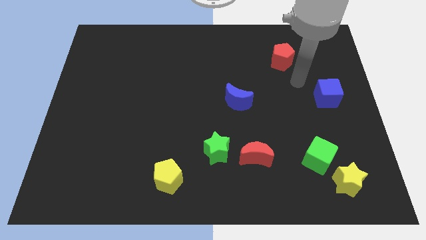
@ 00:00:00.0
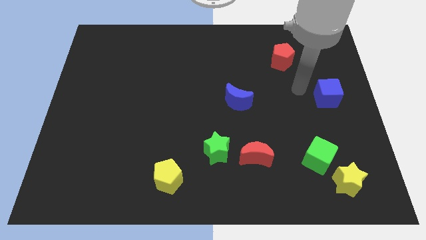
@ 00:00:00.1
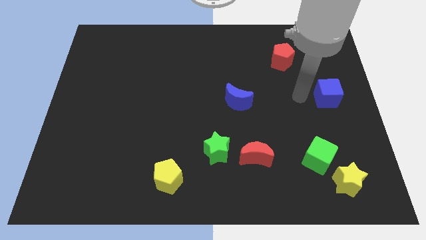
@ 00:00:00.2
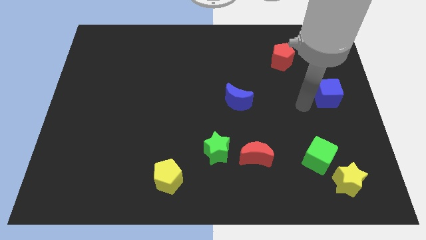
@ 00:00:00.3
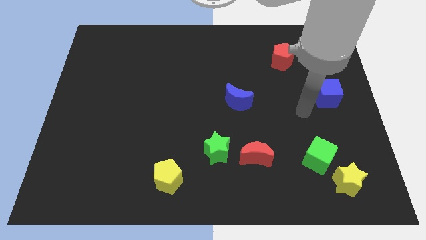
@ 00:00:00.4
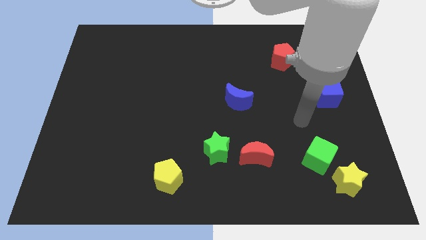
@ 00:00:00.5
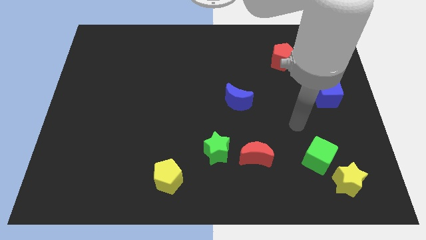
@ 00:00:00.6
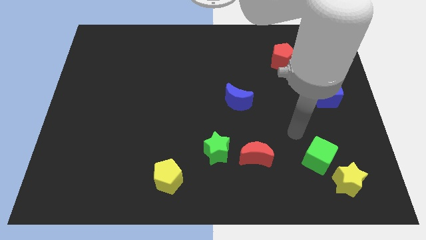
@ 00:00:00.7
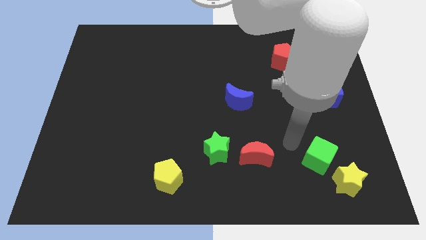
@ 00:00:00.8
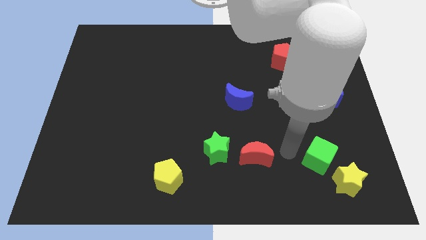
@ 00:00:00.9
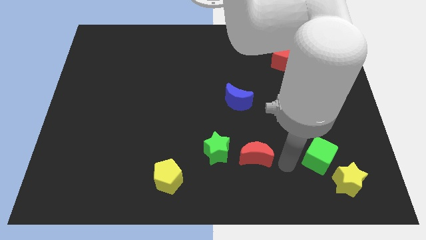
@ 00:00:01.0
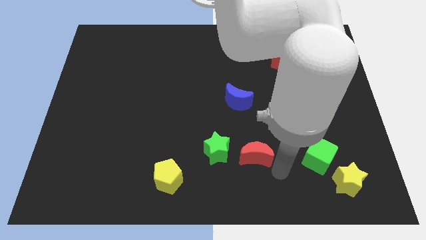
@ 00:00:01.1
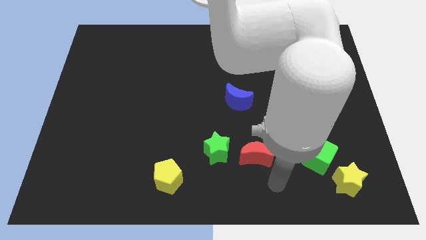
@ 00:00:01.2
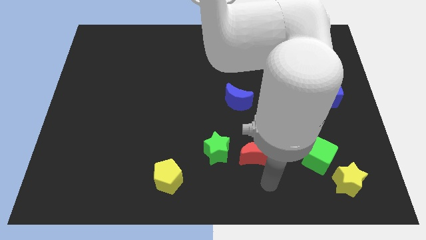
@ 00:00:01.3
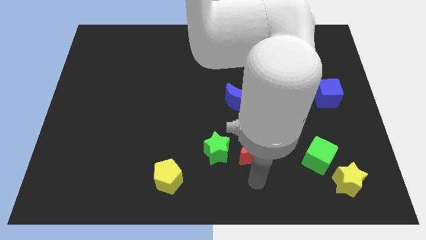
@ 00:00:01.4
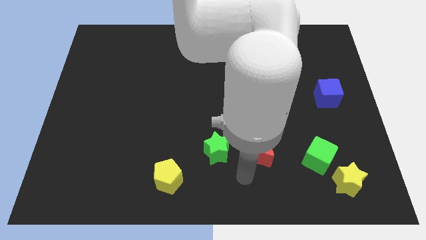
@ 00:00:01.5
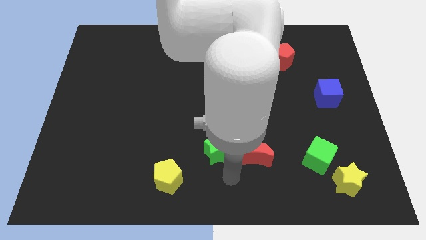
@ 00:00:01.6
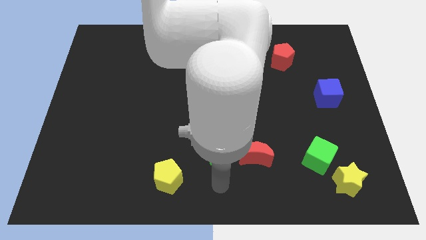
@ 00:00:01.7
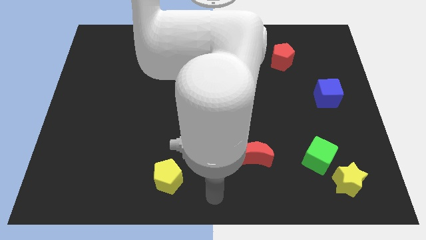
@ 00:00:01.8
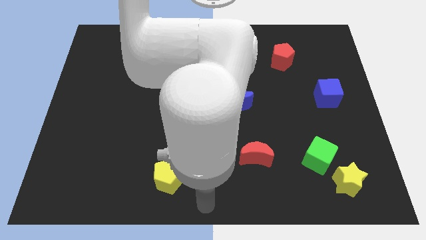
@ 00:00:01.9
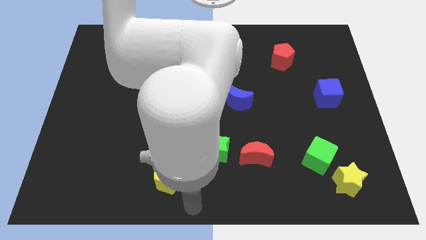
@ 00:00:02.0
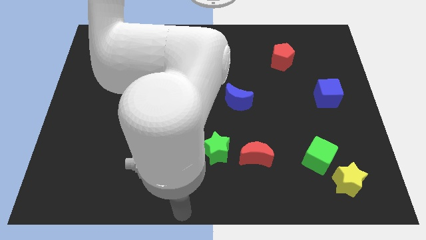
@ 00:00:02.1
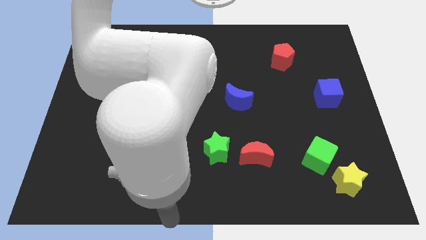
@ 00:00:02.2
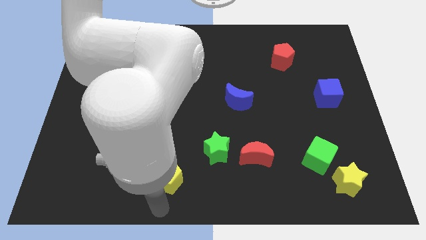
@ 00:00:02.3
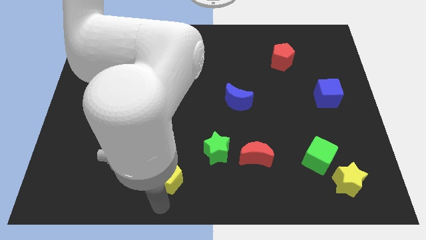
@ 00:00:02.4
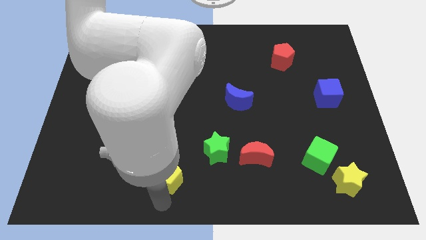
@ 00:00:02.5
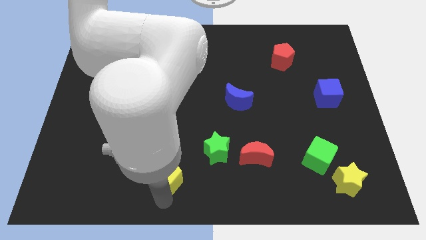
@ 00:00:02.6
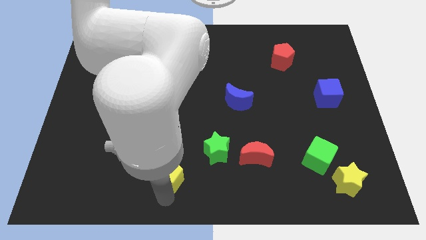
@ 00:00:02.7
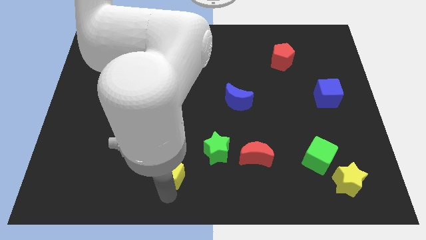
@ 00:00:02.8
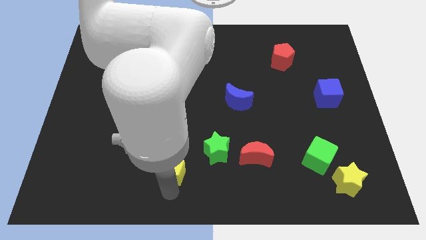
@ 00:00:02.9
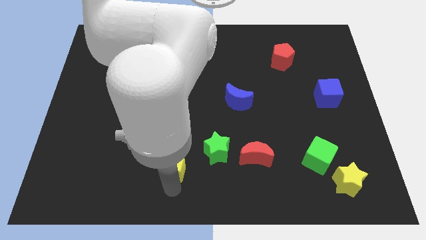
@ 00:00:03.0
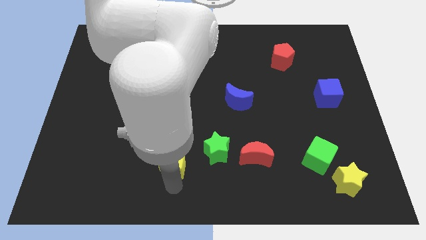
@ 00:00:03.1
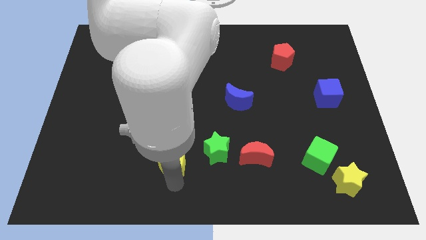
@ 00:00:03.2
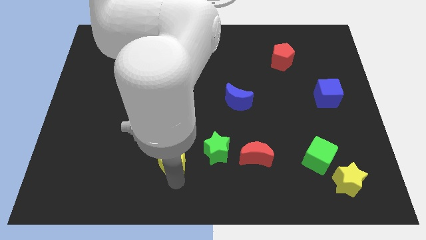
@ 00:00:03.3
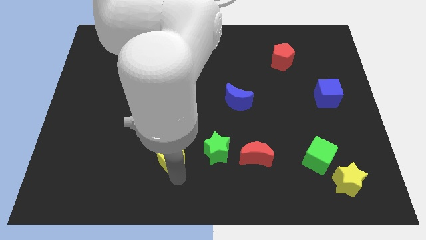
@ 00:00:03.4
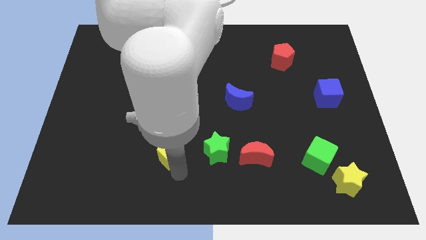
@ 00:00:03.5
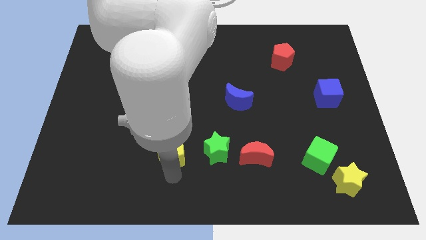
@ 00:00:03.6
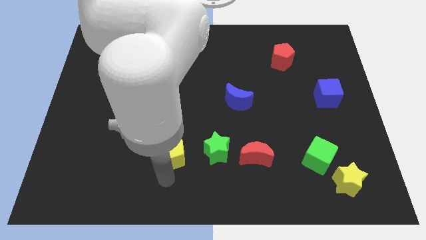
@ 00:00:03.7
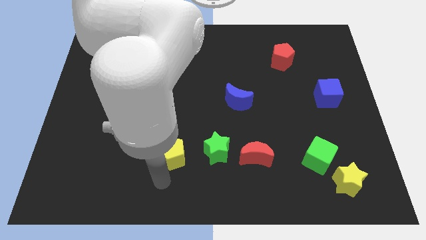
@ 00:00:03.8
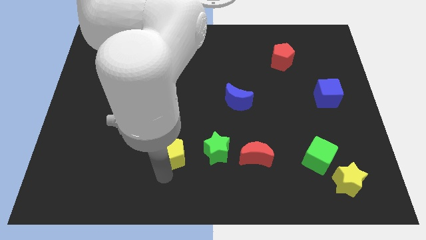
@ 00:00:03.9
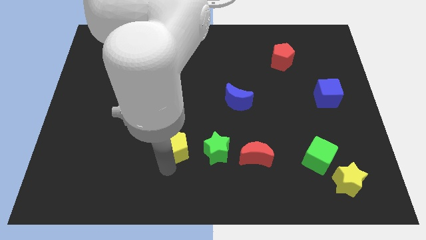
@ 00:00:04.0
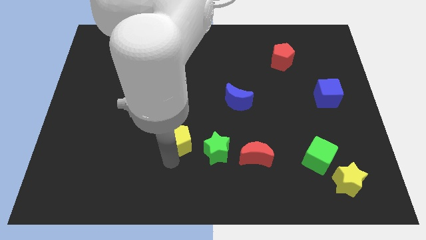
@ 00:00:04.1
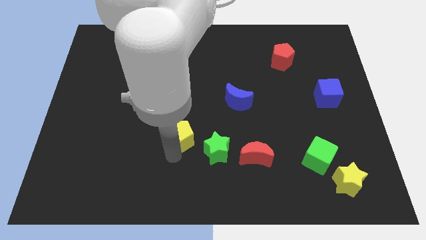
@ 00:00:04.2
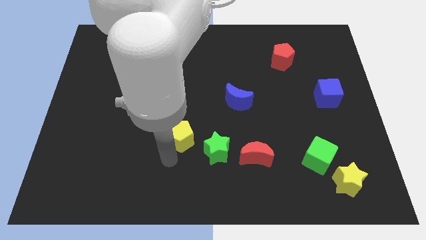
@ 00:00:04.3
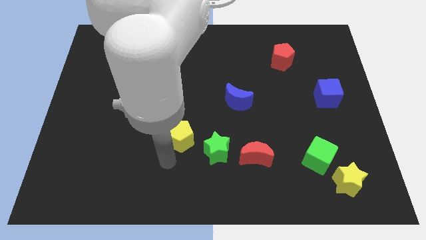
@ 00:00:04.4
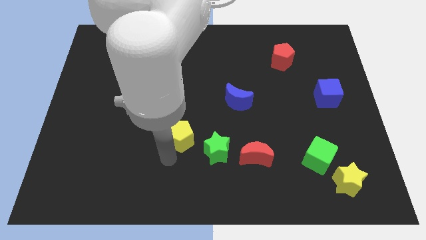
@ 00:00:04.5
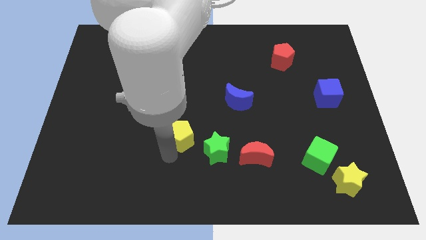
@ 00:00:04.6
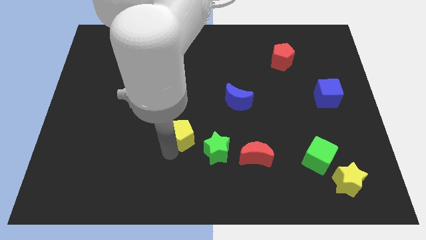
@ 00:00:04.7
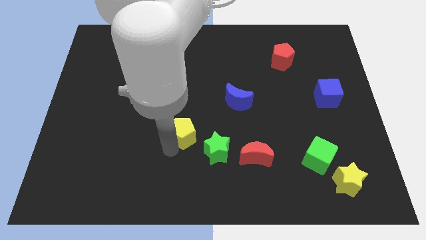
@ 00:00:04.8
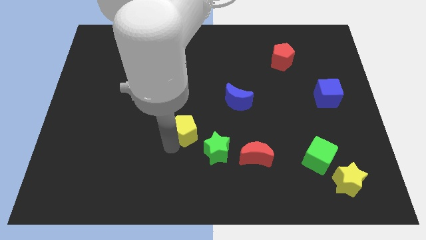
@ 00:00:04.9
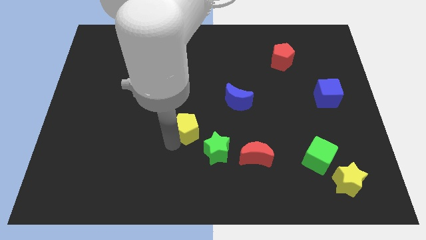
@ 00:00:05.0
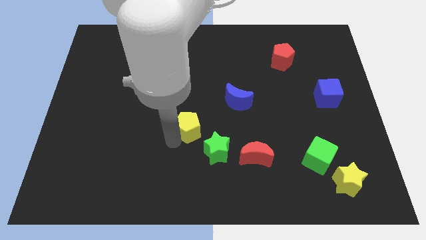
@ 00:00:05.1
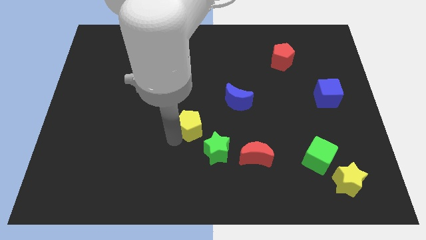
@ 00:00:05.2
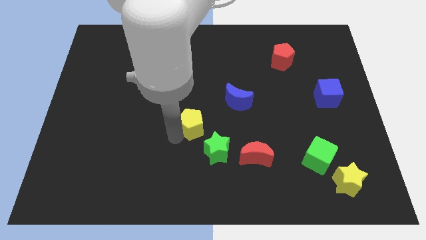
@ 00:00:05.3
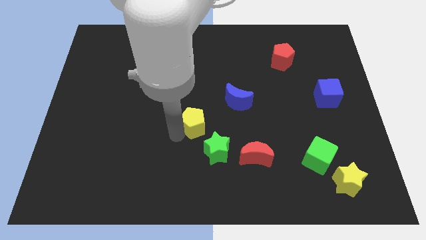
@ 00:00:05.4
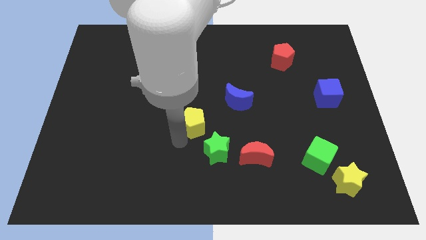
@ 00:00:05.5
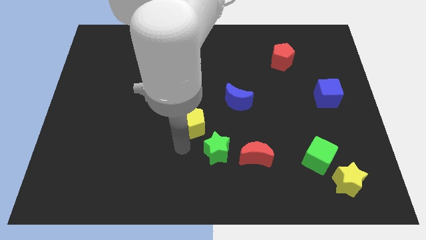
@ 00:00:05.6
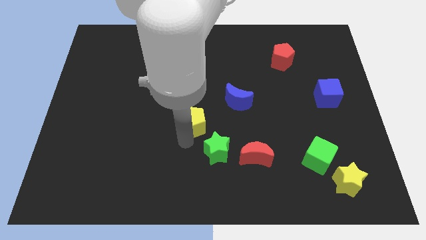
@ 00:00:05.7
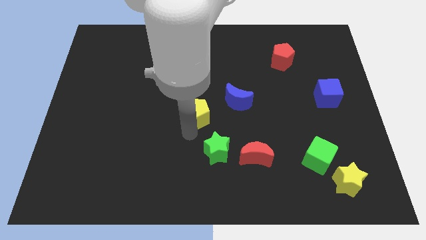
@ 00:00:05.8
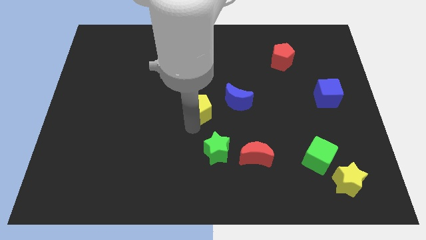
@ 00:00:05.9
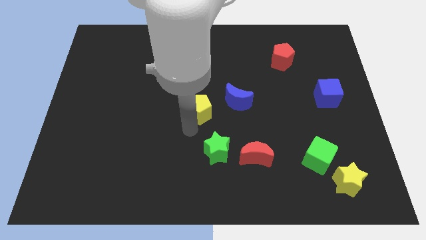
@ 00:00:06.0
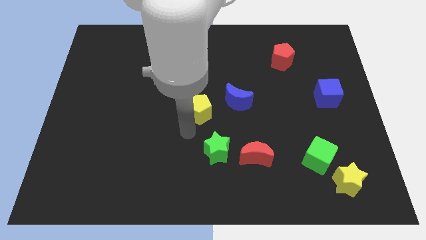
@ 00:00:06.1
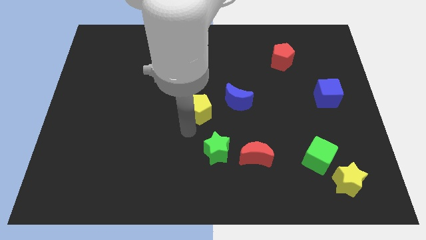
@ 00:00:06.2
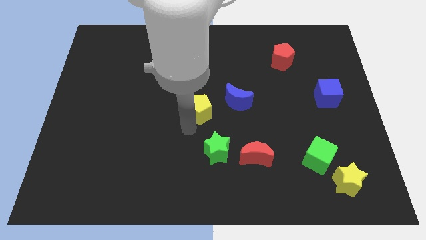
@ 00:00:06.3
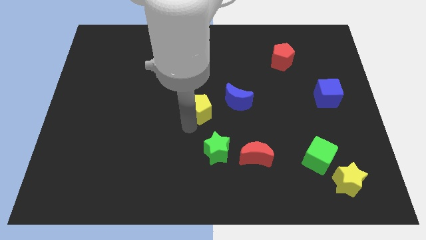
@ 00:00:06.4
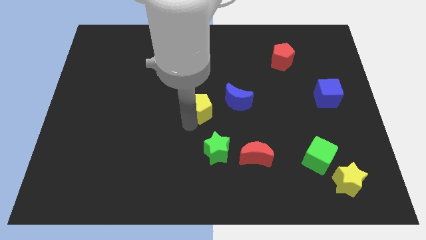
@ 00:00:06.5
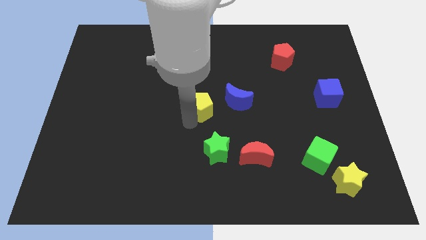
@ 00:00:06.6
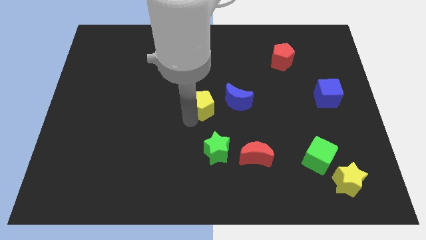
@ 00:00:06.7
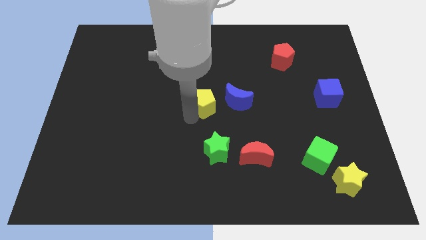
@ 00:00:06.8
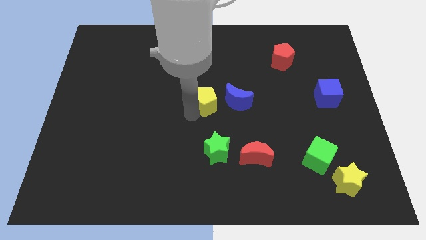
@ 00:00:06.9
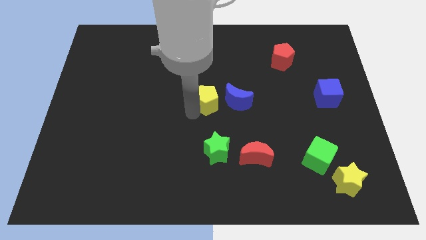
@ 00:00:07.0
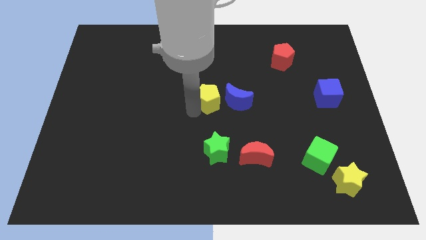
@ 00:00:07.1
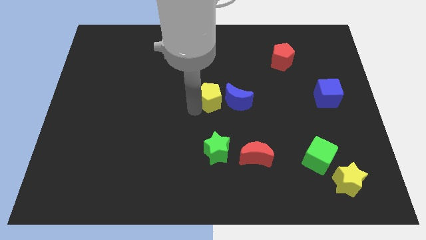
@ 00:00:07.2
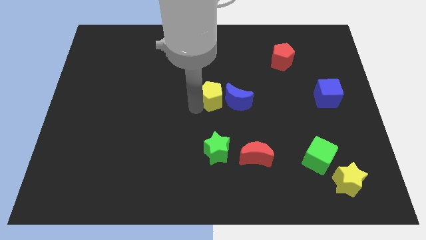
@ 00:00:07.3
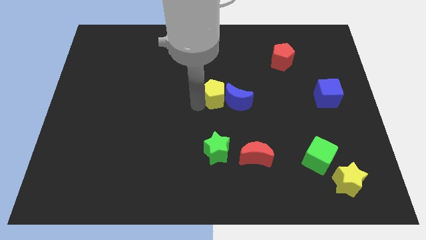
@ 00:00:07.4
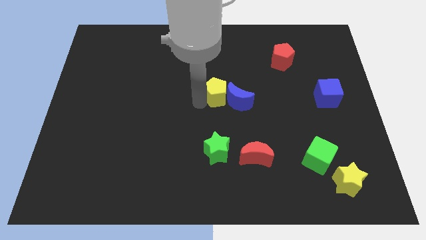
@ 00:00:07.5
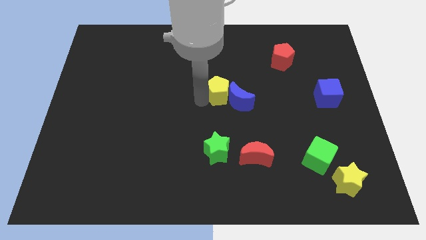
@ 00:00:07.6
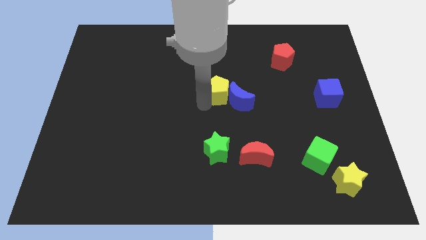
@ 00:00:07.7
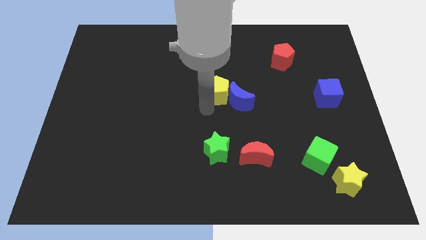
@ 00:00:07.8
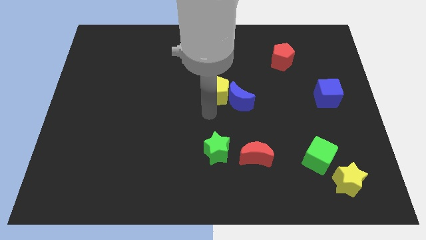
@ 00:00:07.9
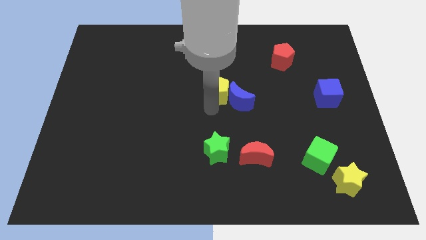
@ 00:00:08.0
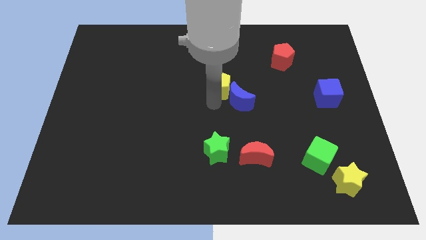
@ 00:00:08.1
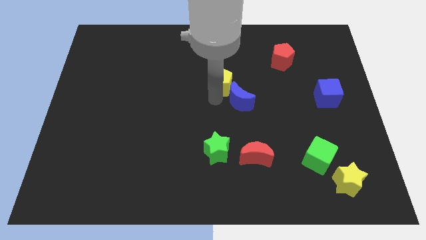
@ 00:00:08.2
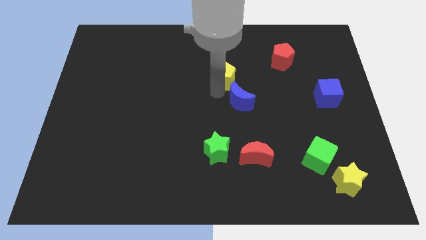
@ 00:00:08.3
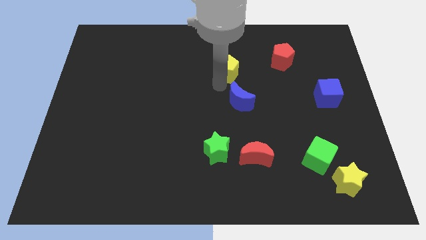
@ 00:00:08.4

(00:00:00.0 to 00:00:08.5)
push the yellow pentagon to the left side of the red pentagon
